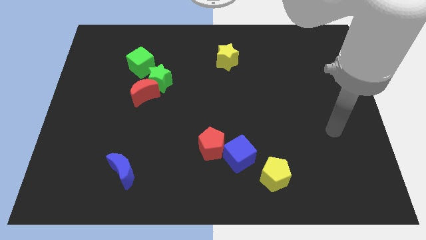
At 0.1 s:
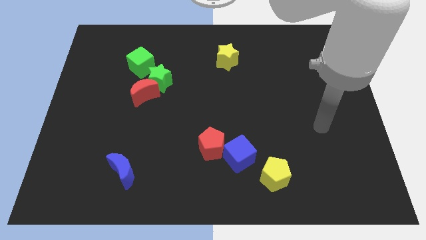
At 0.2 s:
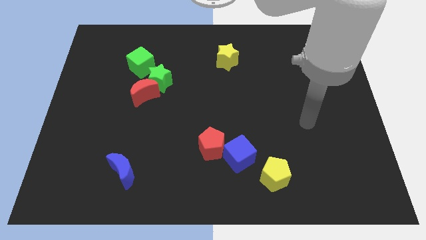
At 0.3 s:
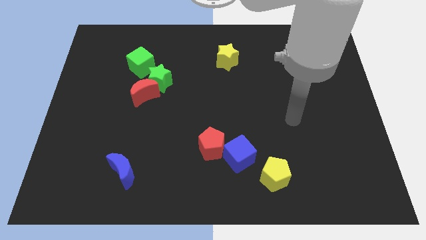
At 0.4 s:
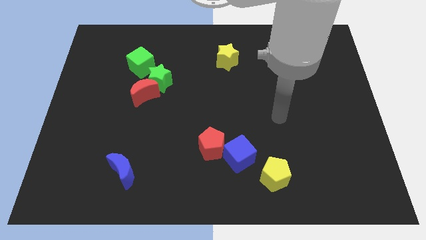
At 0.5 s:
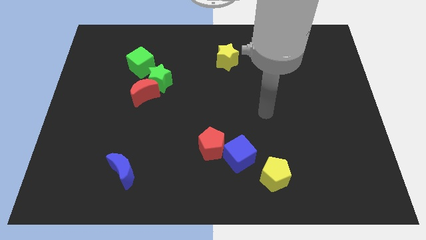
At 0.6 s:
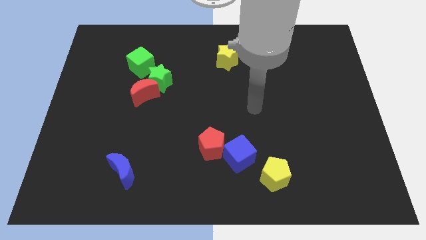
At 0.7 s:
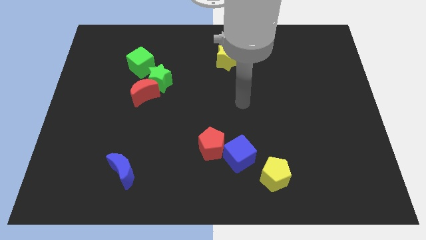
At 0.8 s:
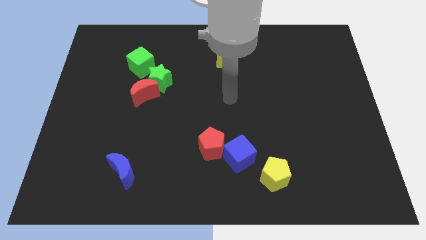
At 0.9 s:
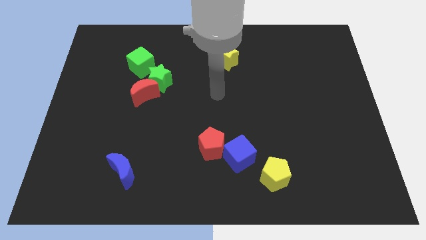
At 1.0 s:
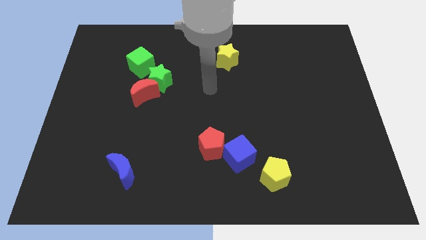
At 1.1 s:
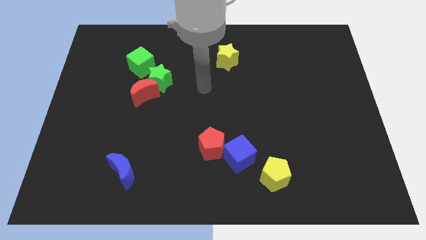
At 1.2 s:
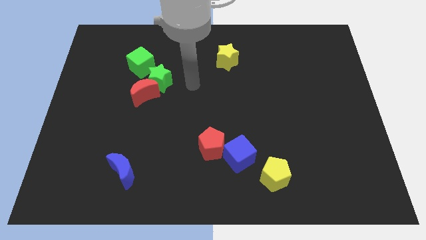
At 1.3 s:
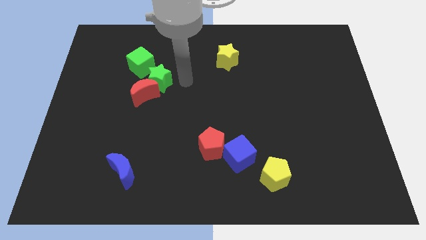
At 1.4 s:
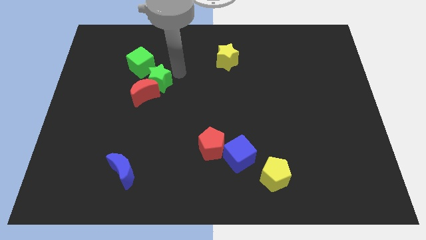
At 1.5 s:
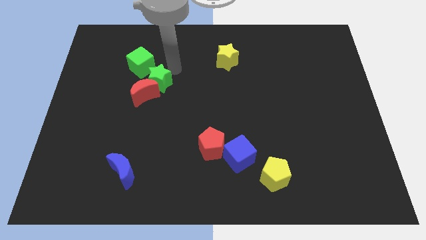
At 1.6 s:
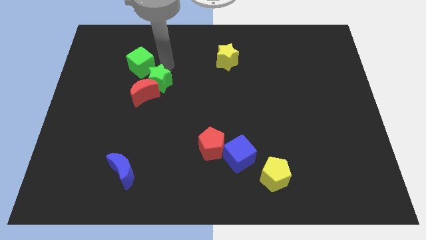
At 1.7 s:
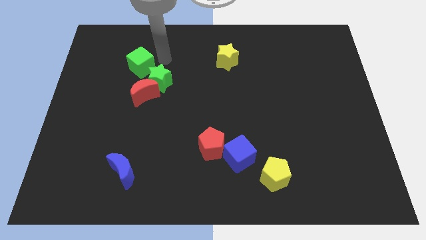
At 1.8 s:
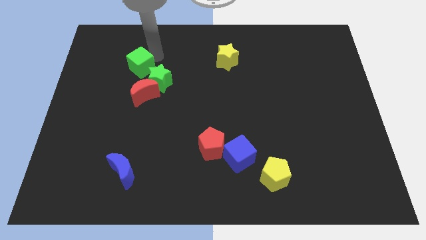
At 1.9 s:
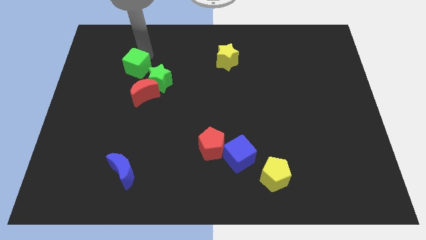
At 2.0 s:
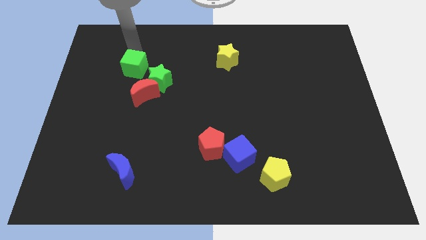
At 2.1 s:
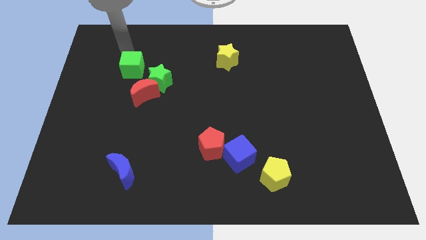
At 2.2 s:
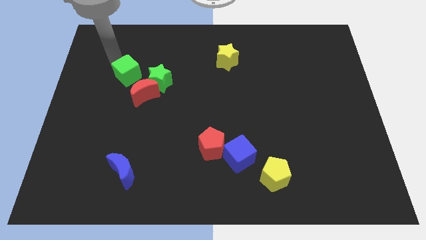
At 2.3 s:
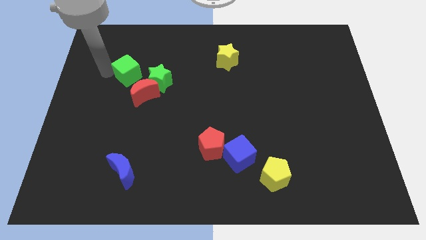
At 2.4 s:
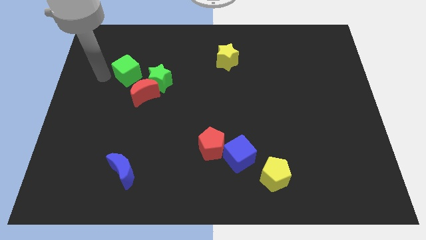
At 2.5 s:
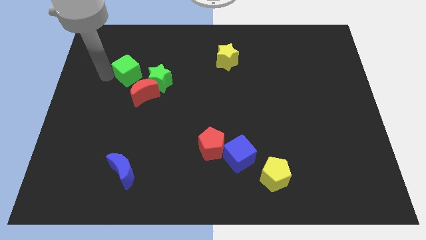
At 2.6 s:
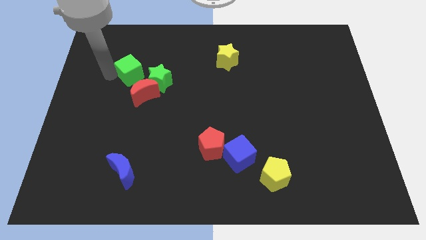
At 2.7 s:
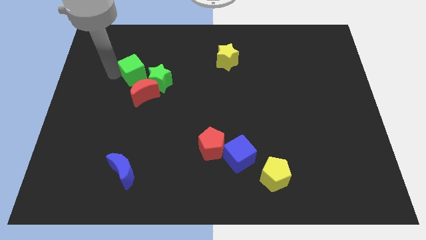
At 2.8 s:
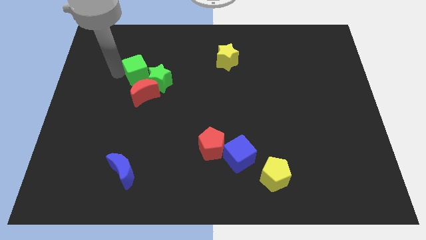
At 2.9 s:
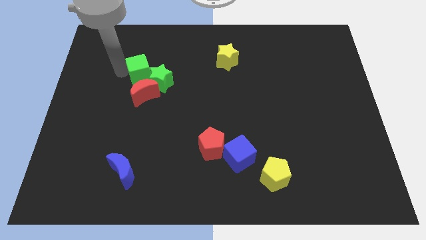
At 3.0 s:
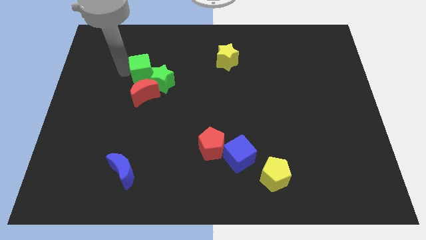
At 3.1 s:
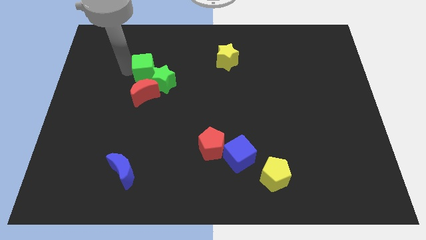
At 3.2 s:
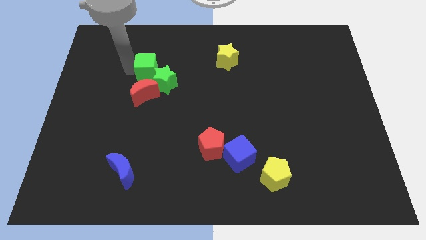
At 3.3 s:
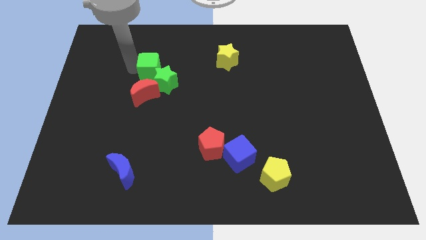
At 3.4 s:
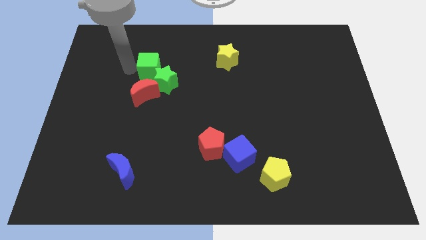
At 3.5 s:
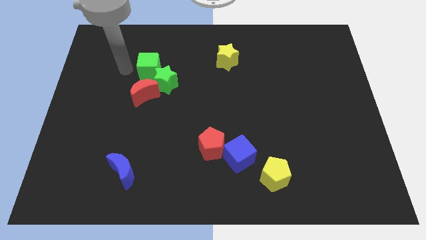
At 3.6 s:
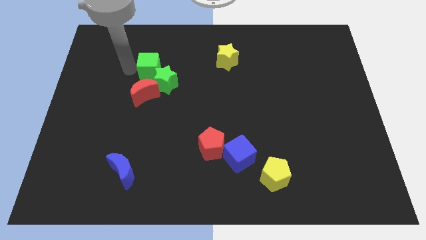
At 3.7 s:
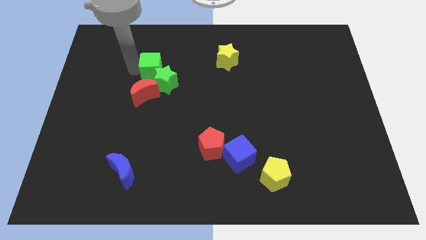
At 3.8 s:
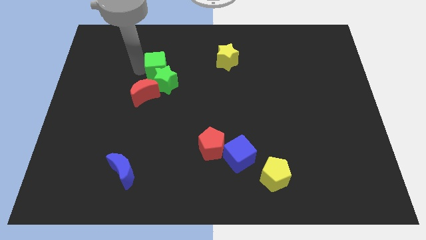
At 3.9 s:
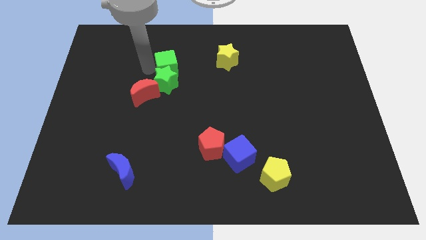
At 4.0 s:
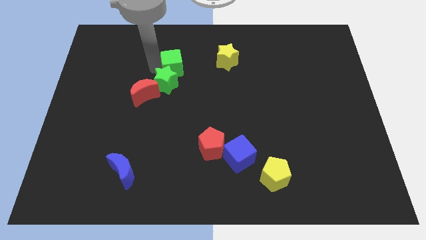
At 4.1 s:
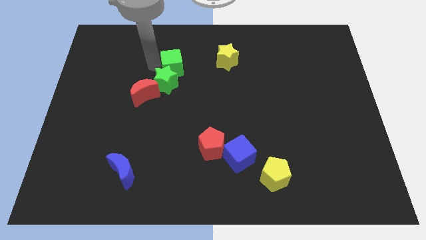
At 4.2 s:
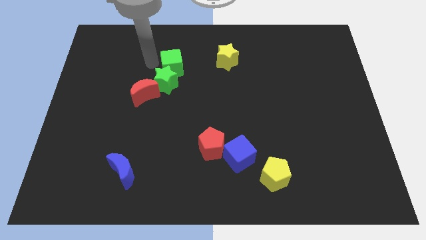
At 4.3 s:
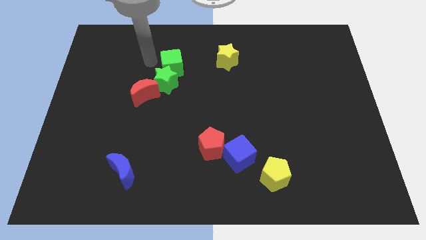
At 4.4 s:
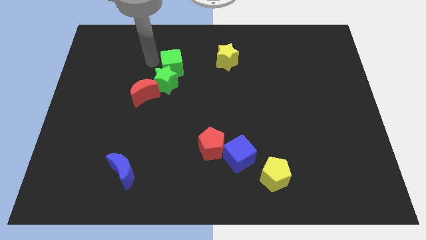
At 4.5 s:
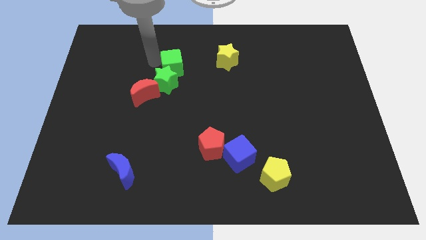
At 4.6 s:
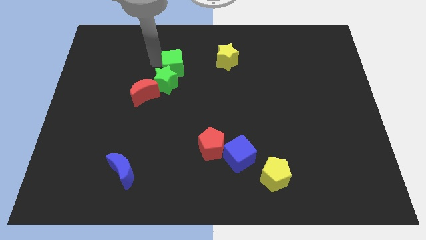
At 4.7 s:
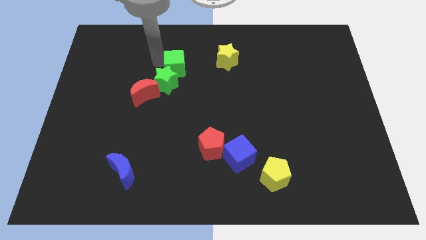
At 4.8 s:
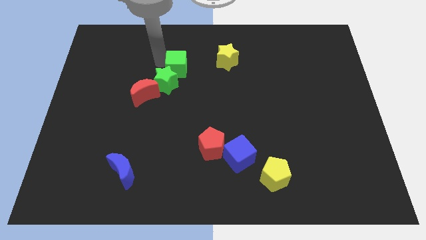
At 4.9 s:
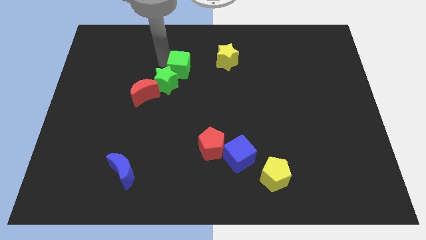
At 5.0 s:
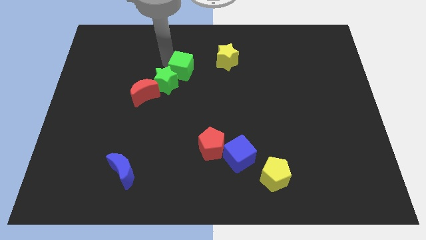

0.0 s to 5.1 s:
put the green cube to the right side of the green star

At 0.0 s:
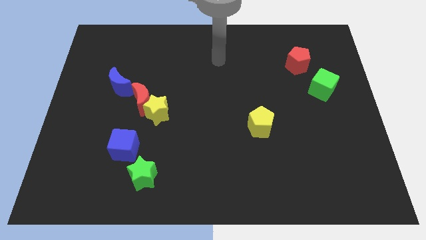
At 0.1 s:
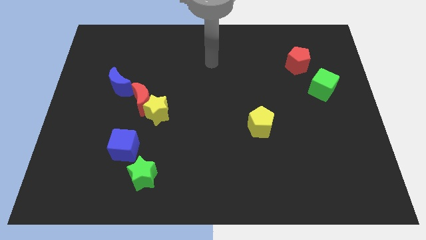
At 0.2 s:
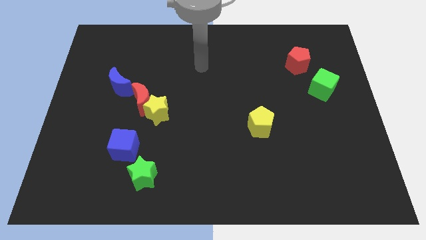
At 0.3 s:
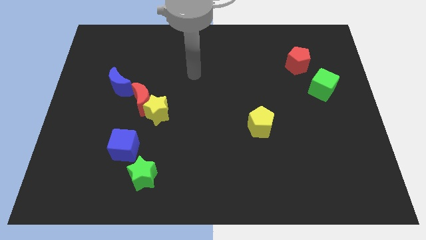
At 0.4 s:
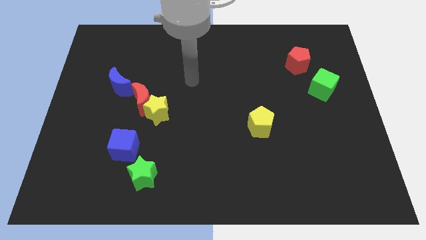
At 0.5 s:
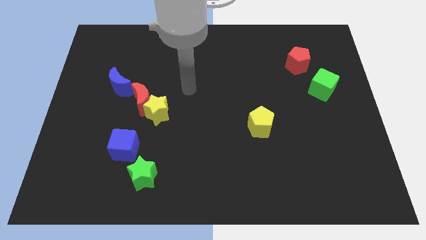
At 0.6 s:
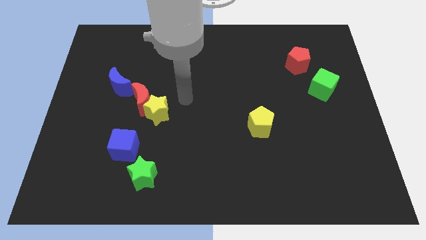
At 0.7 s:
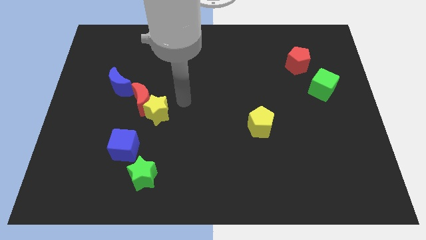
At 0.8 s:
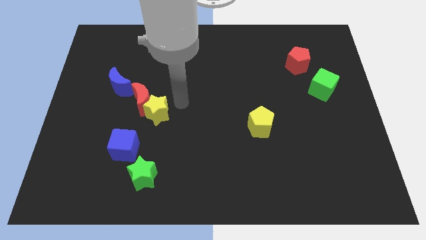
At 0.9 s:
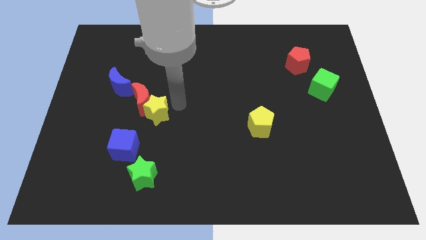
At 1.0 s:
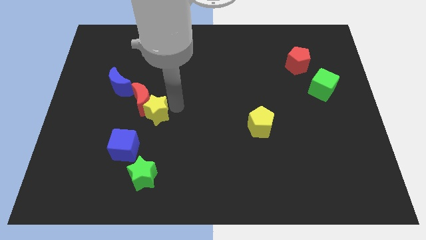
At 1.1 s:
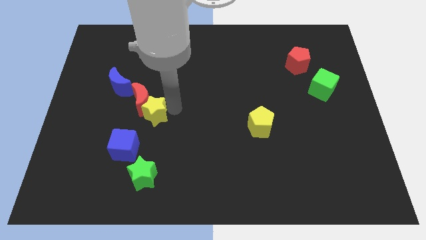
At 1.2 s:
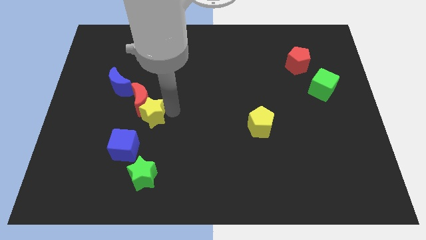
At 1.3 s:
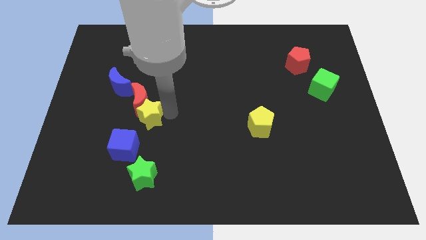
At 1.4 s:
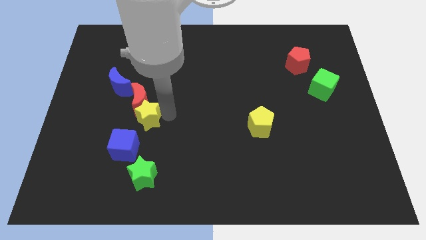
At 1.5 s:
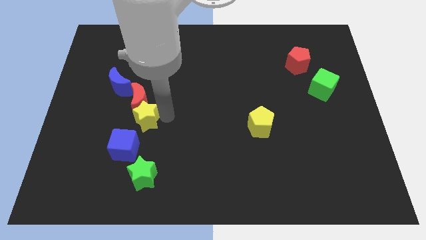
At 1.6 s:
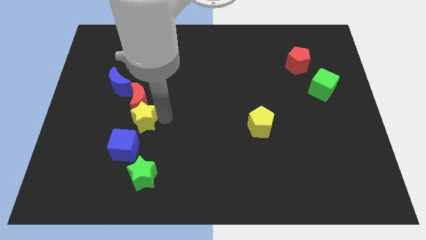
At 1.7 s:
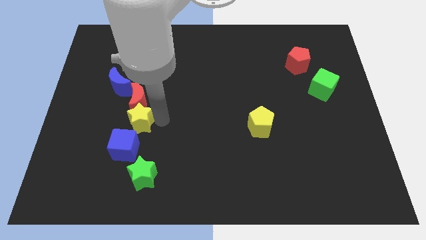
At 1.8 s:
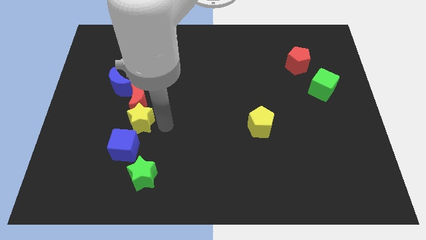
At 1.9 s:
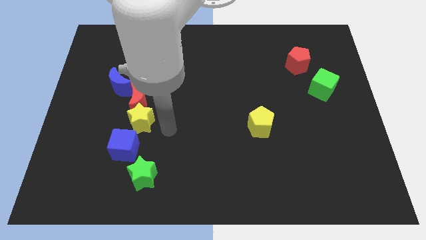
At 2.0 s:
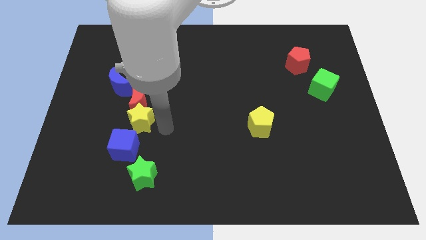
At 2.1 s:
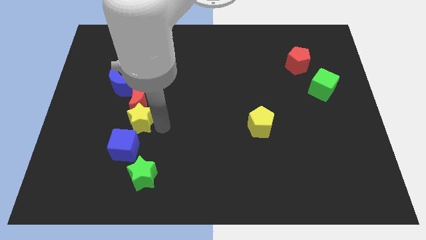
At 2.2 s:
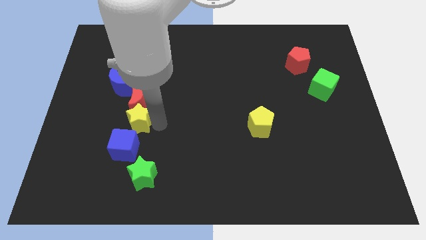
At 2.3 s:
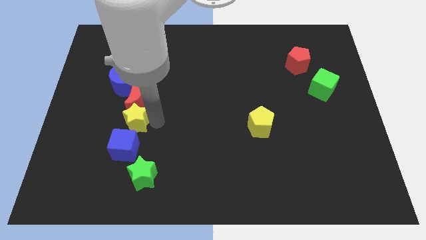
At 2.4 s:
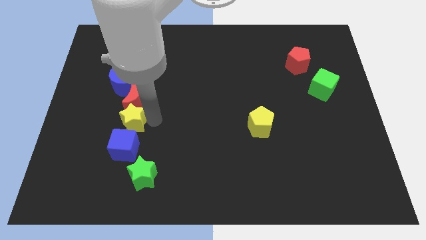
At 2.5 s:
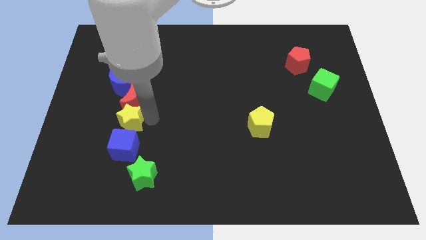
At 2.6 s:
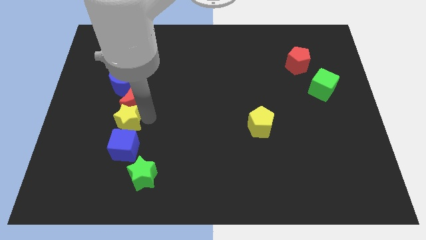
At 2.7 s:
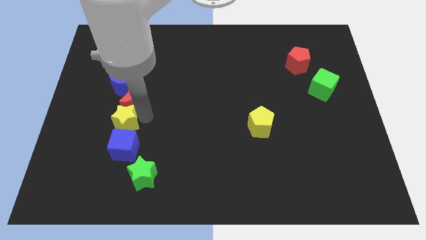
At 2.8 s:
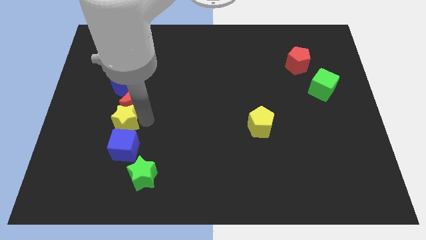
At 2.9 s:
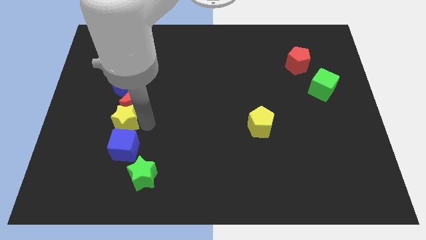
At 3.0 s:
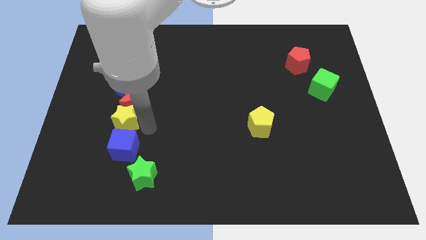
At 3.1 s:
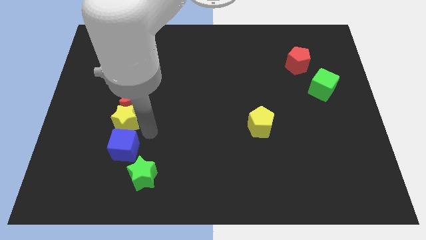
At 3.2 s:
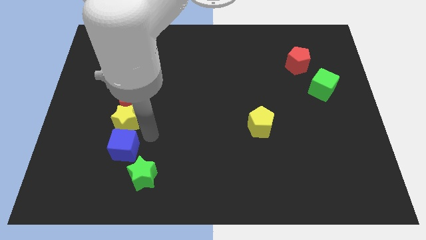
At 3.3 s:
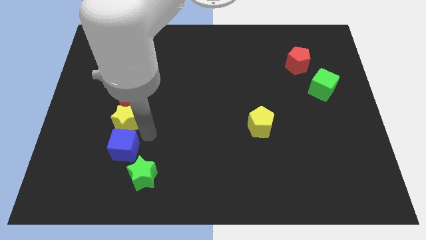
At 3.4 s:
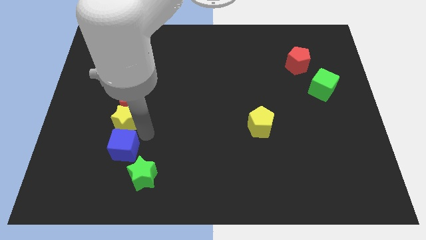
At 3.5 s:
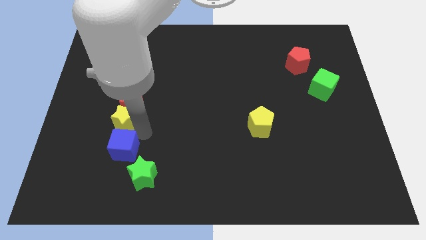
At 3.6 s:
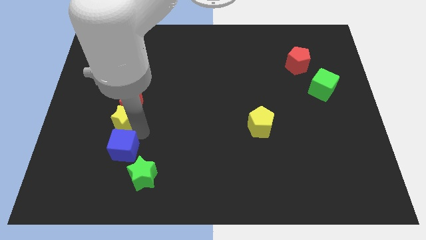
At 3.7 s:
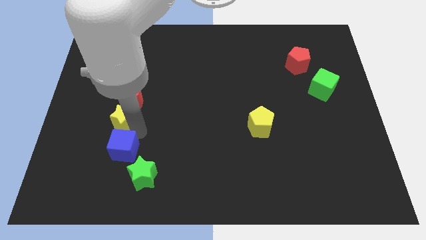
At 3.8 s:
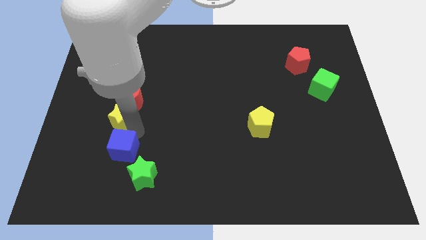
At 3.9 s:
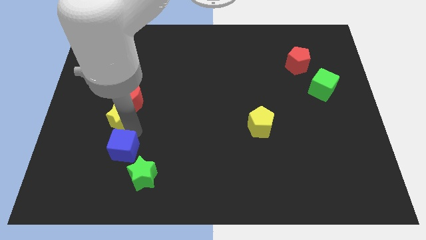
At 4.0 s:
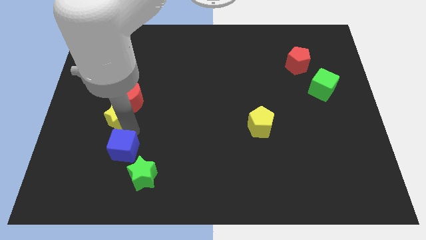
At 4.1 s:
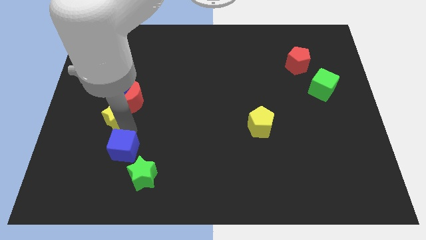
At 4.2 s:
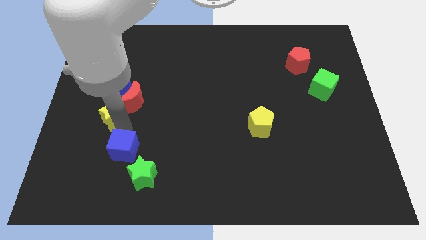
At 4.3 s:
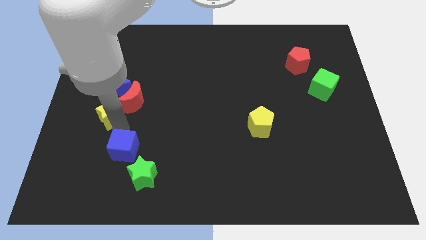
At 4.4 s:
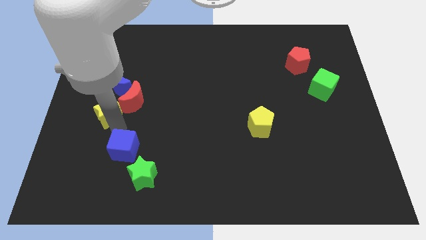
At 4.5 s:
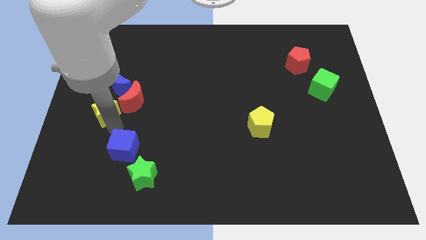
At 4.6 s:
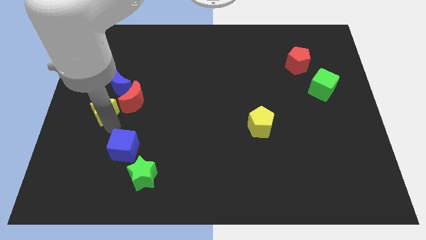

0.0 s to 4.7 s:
move the yellow star to the bottom left of the blue moon
